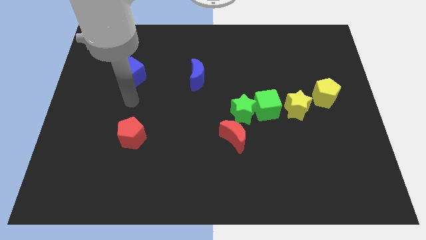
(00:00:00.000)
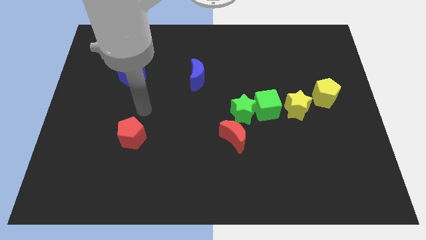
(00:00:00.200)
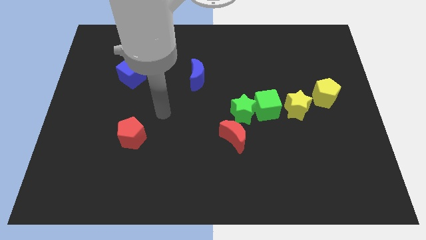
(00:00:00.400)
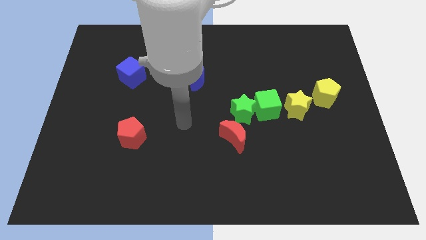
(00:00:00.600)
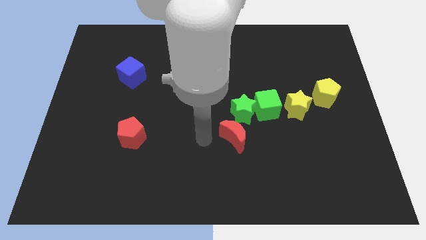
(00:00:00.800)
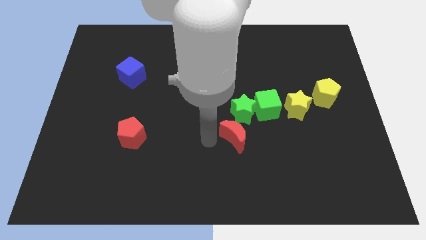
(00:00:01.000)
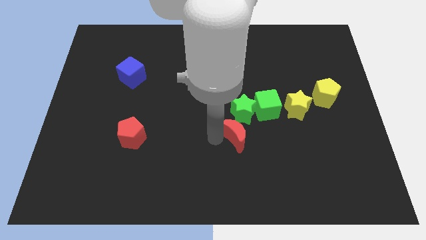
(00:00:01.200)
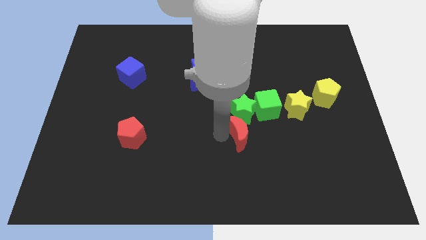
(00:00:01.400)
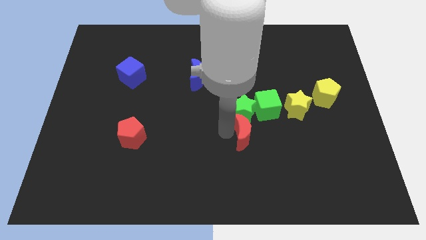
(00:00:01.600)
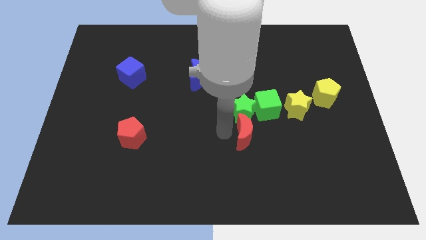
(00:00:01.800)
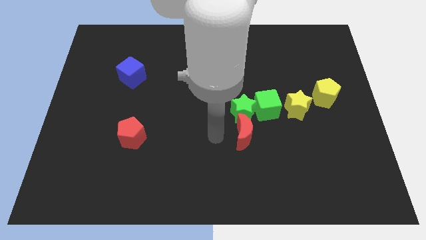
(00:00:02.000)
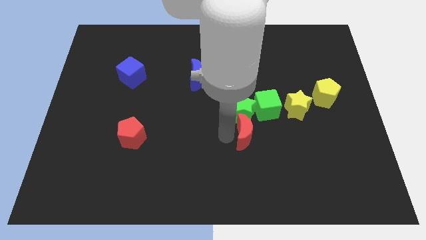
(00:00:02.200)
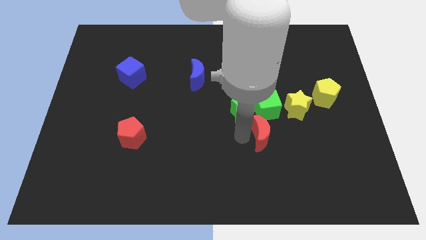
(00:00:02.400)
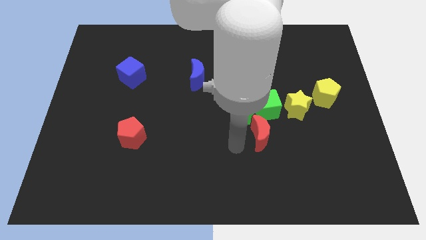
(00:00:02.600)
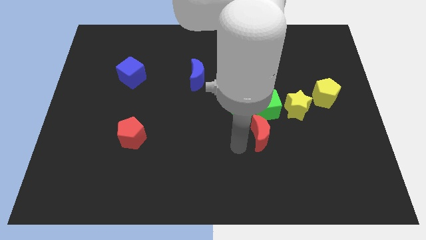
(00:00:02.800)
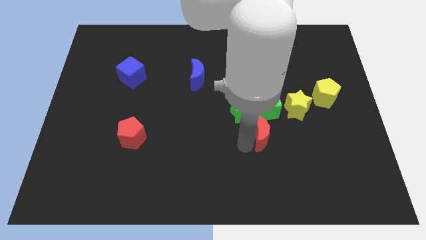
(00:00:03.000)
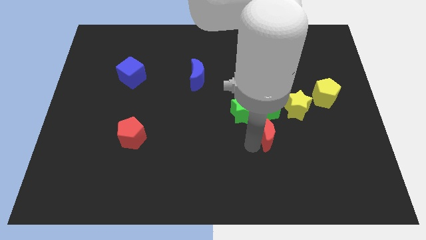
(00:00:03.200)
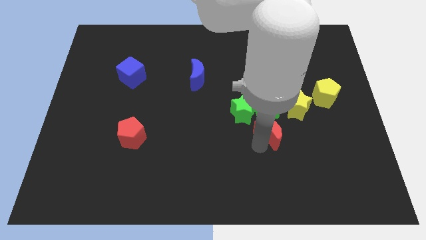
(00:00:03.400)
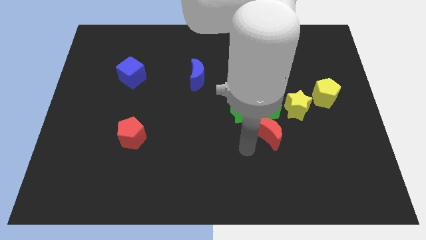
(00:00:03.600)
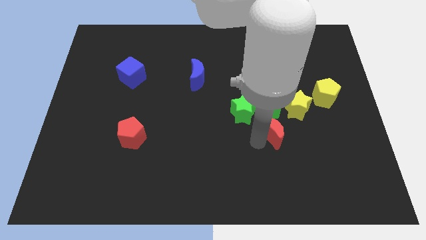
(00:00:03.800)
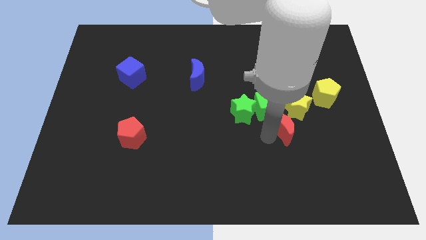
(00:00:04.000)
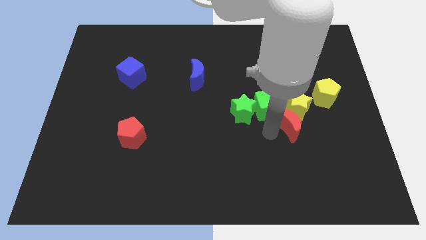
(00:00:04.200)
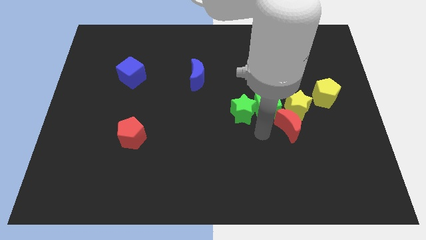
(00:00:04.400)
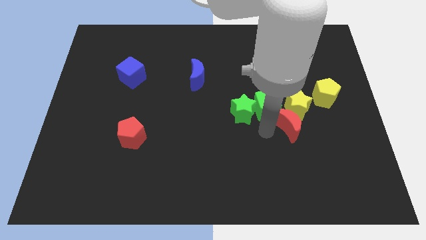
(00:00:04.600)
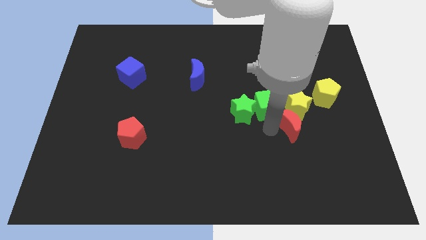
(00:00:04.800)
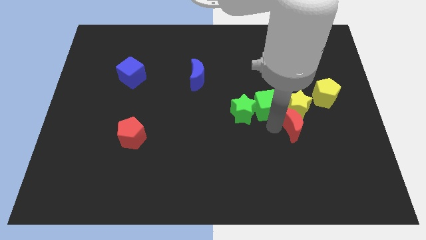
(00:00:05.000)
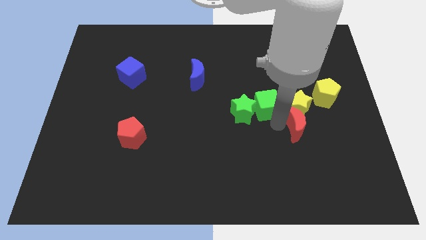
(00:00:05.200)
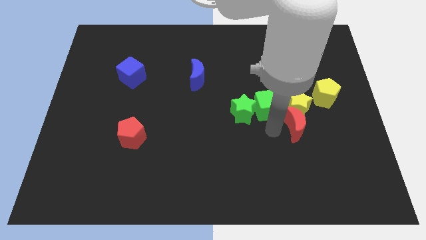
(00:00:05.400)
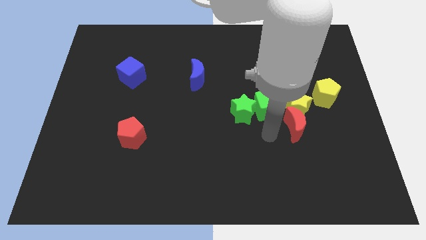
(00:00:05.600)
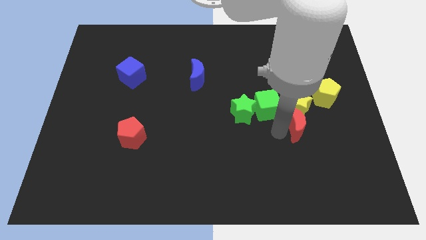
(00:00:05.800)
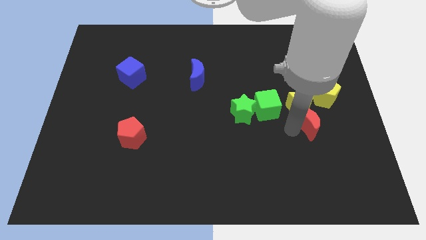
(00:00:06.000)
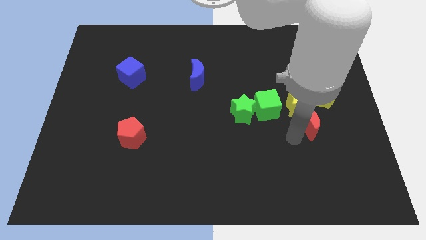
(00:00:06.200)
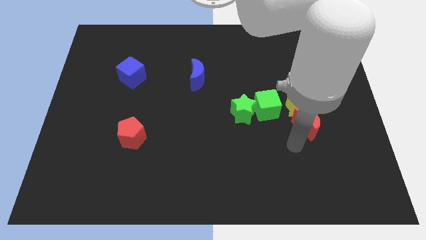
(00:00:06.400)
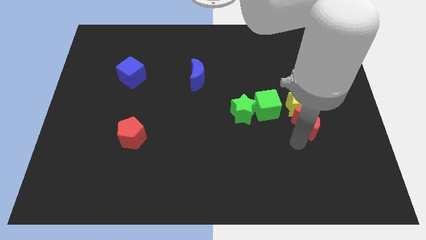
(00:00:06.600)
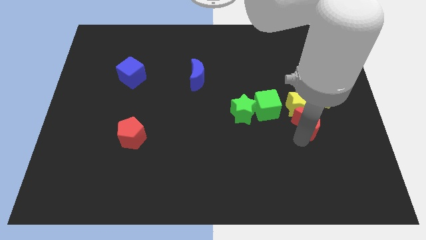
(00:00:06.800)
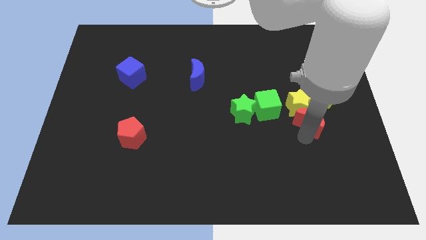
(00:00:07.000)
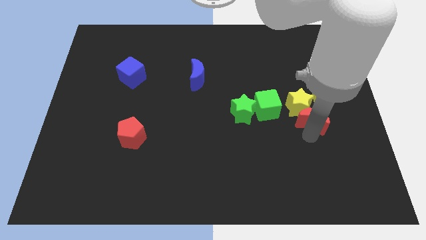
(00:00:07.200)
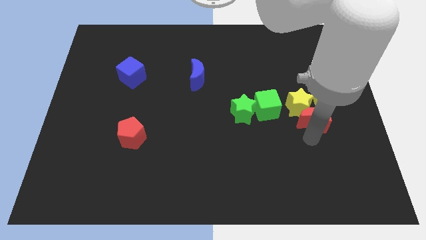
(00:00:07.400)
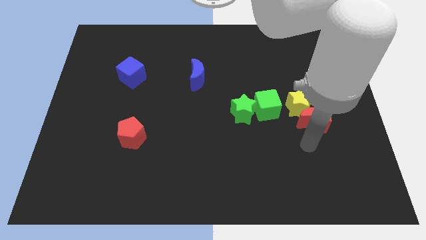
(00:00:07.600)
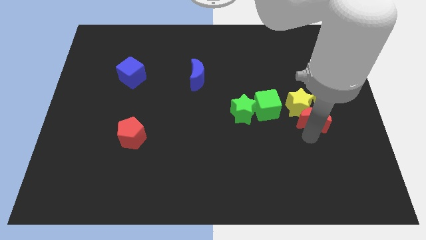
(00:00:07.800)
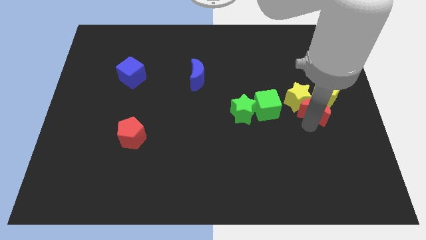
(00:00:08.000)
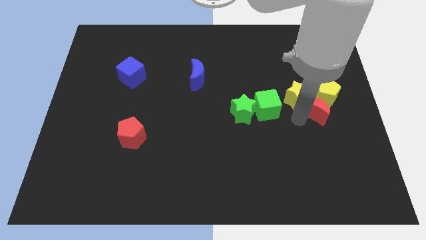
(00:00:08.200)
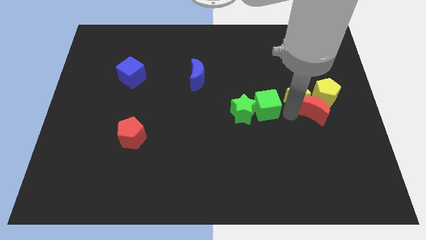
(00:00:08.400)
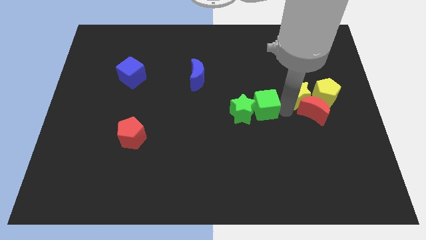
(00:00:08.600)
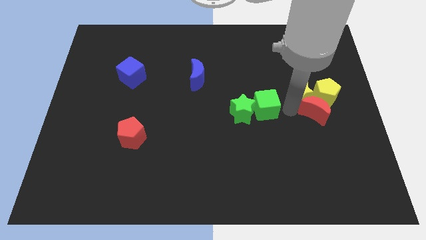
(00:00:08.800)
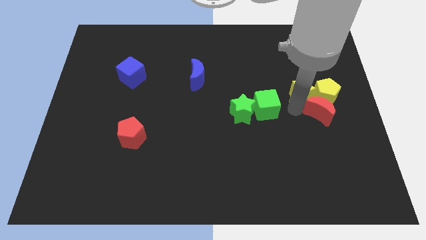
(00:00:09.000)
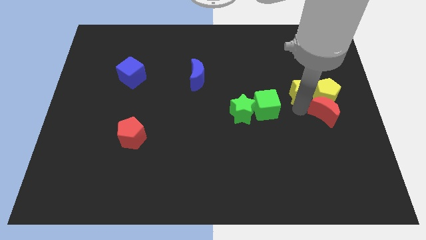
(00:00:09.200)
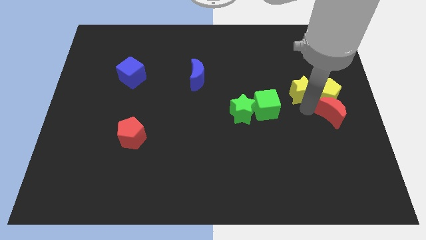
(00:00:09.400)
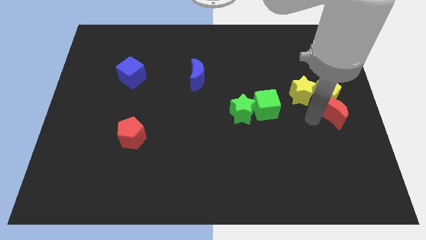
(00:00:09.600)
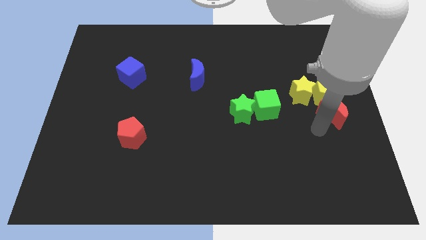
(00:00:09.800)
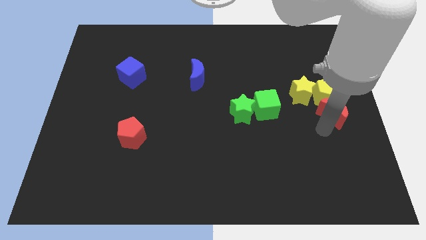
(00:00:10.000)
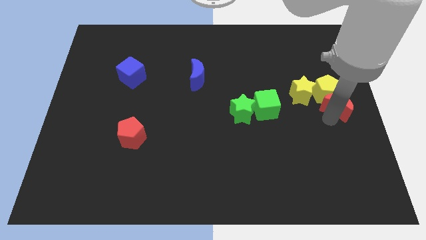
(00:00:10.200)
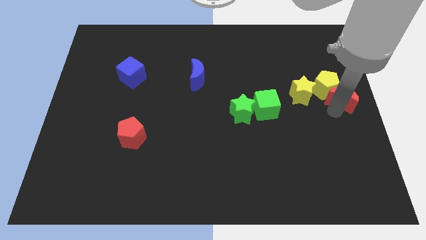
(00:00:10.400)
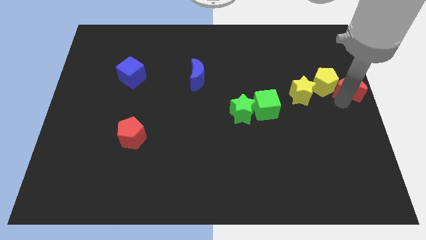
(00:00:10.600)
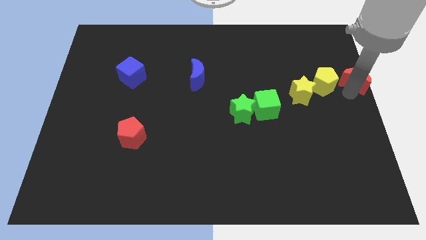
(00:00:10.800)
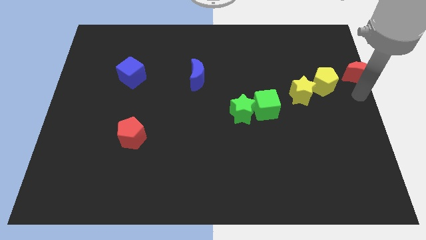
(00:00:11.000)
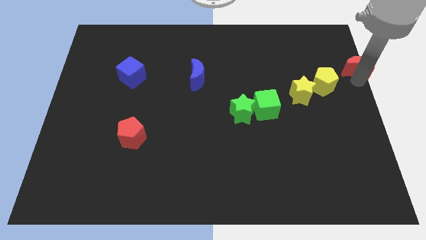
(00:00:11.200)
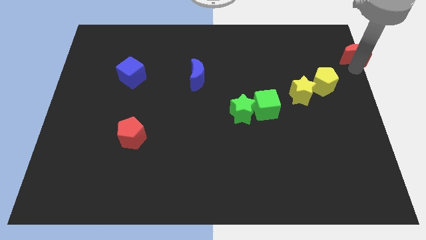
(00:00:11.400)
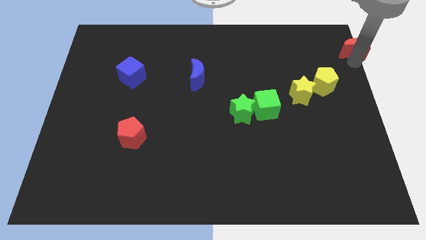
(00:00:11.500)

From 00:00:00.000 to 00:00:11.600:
move the red moon to the top right corner
